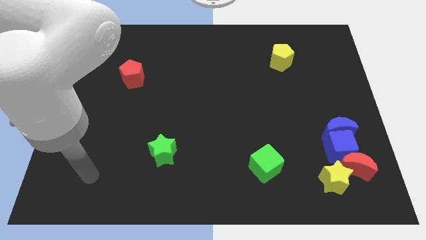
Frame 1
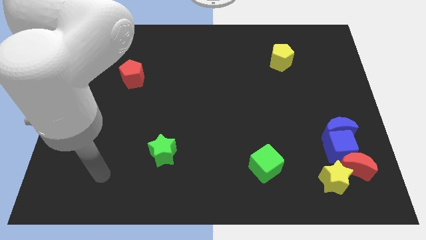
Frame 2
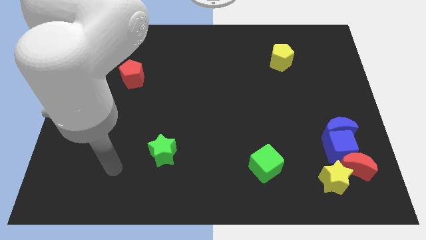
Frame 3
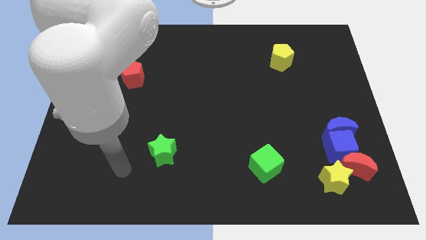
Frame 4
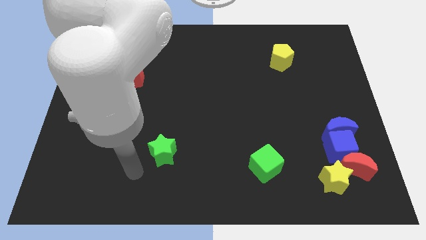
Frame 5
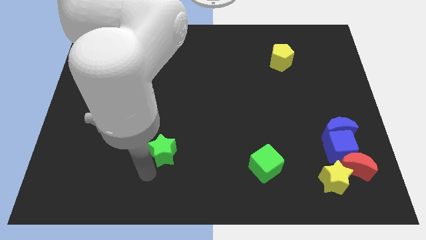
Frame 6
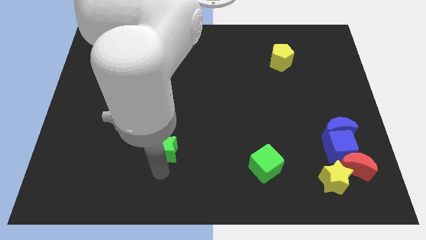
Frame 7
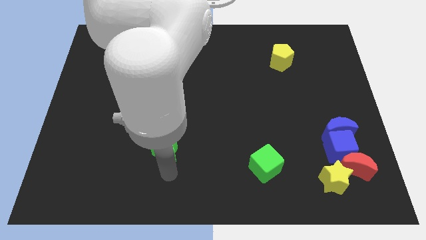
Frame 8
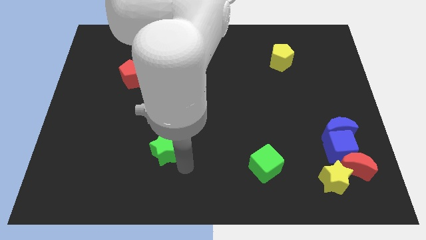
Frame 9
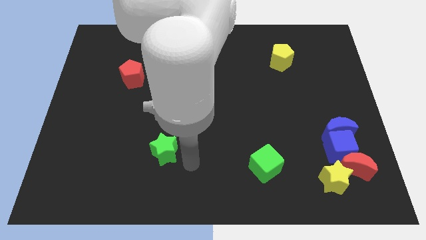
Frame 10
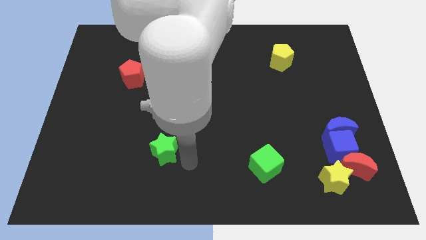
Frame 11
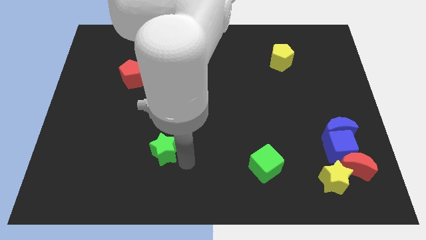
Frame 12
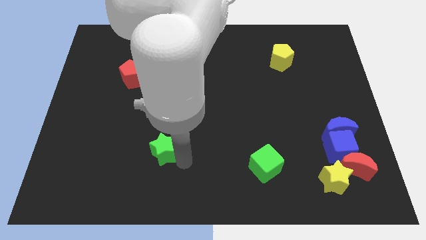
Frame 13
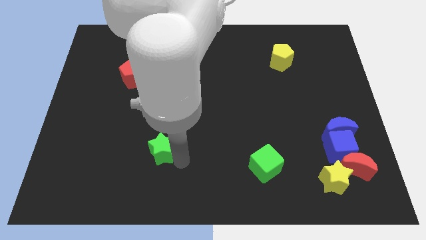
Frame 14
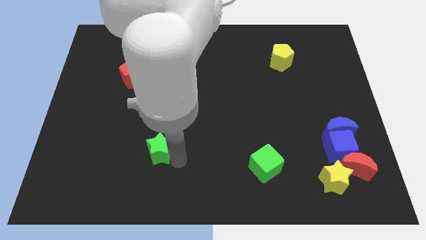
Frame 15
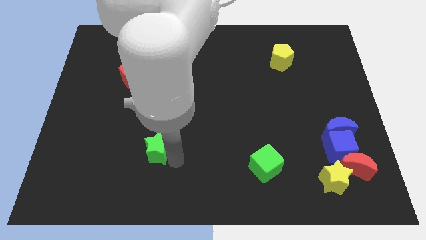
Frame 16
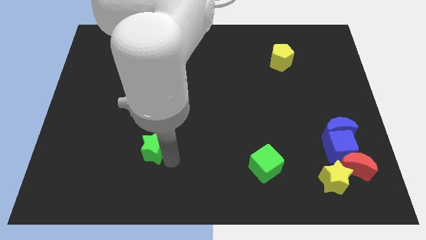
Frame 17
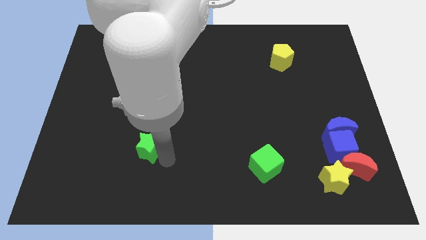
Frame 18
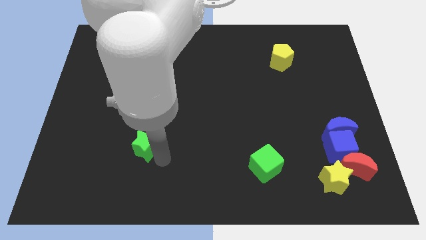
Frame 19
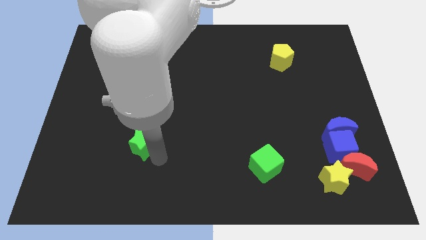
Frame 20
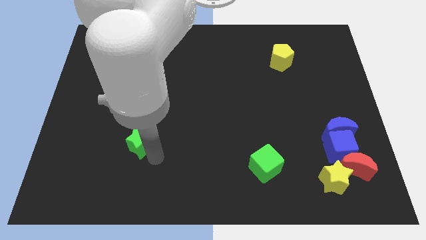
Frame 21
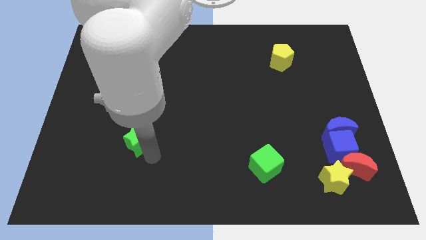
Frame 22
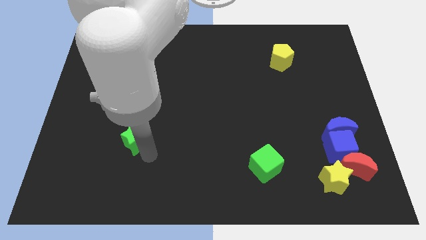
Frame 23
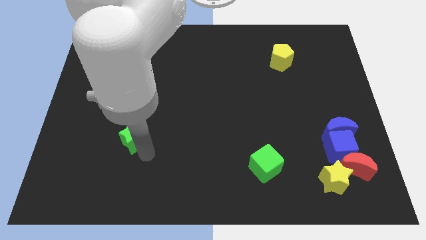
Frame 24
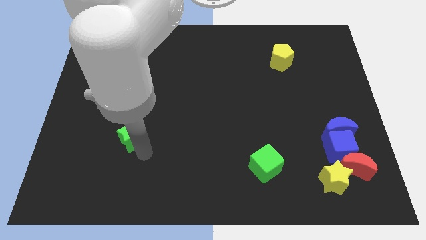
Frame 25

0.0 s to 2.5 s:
slightly slide the green star upwards and left

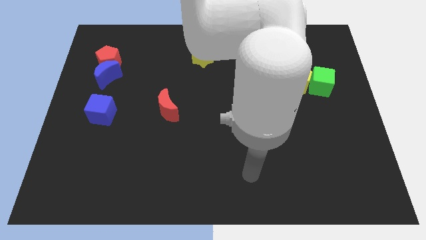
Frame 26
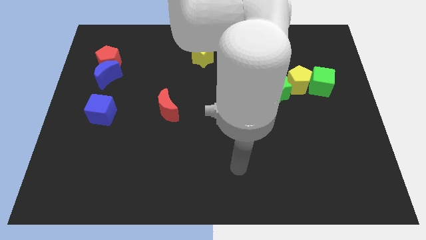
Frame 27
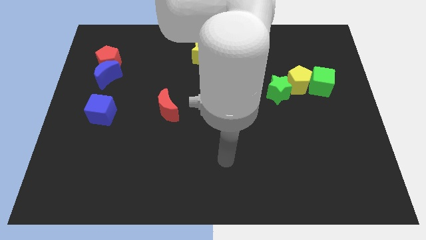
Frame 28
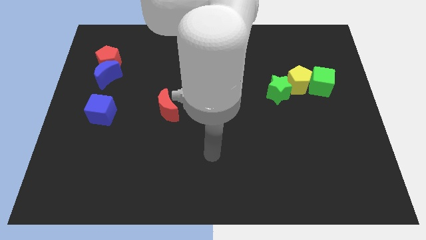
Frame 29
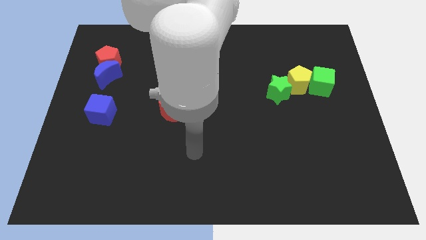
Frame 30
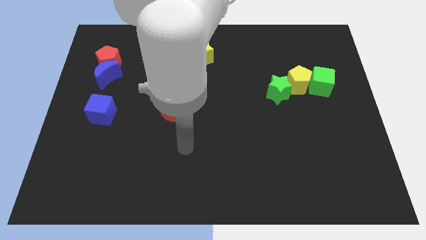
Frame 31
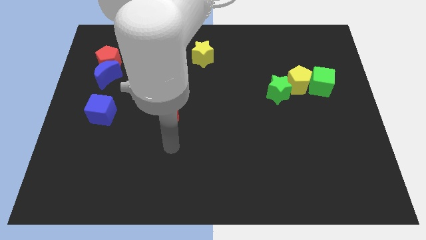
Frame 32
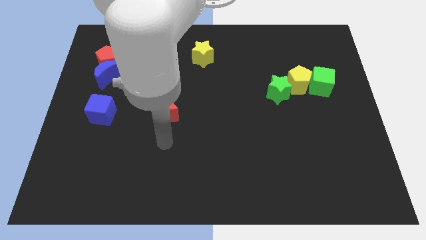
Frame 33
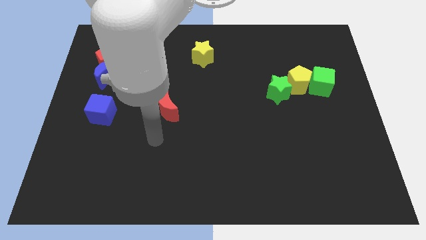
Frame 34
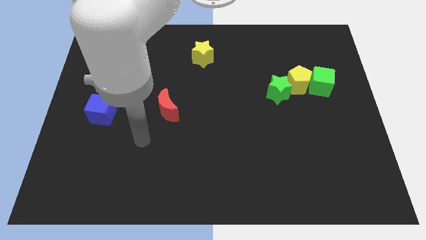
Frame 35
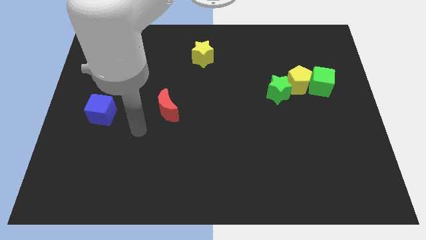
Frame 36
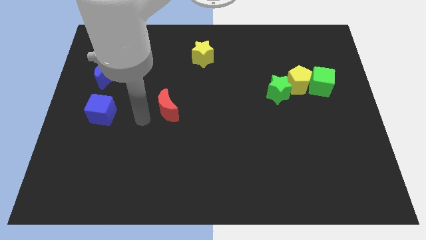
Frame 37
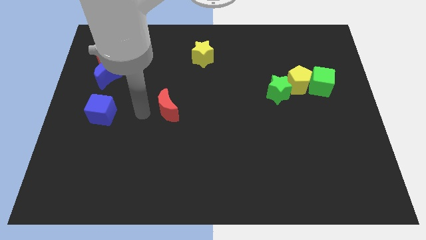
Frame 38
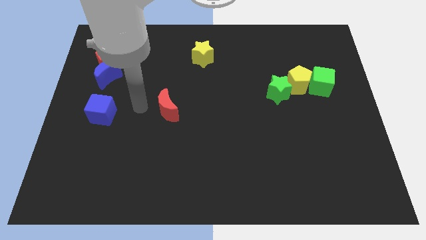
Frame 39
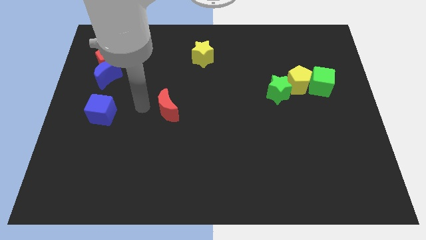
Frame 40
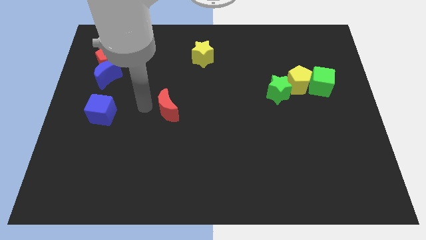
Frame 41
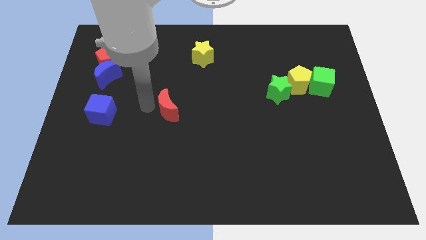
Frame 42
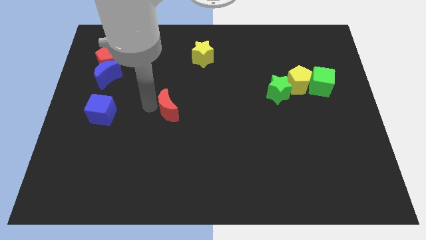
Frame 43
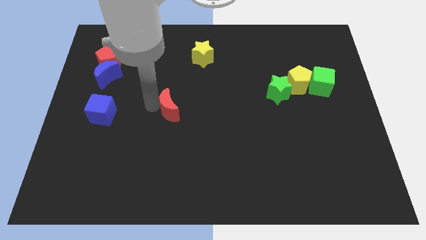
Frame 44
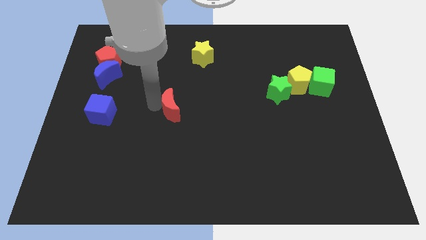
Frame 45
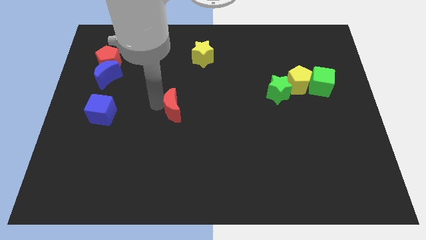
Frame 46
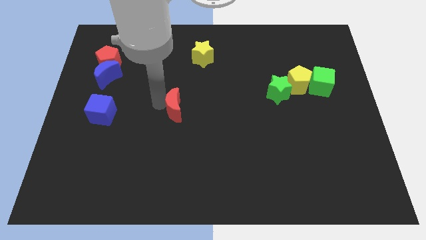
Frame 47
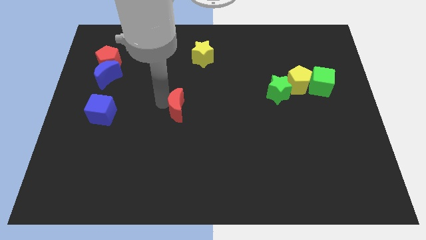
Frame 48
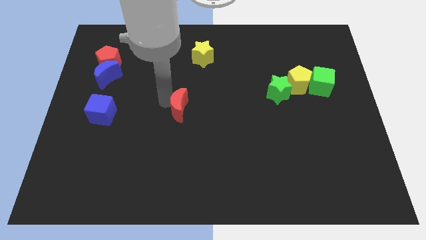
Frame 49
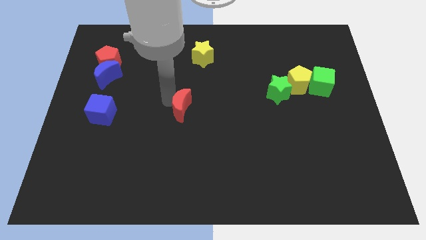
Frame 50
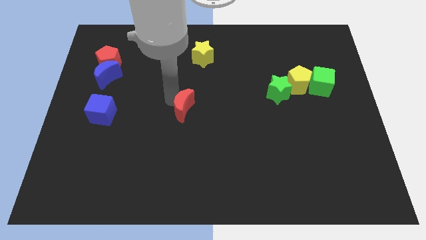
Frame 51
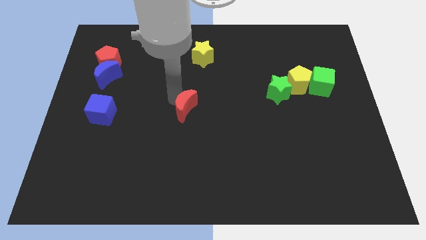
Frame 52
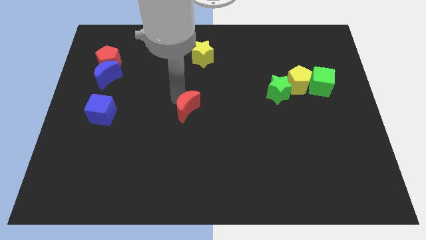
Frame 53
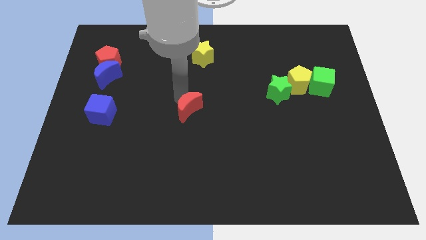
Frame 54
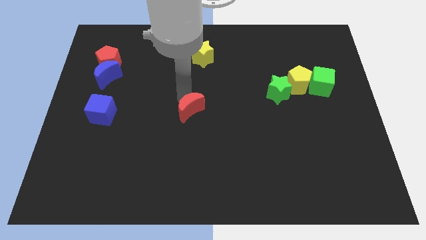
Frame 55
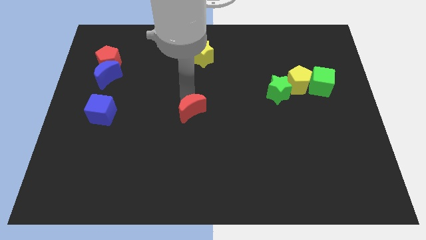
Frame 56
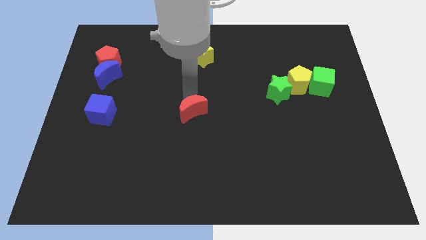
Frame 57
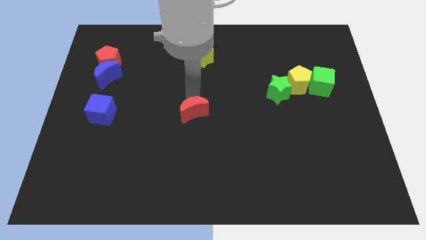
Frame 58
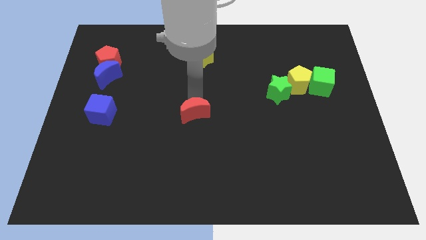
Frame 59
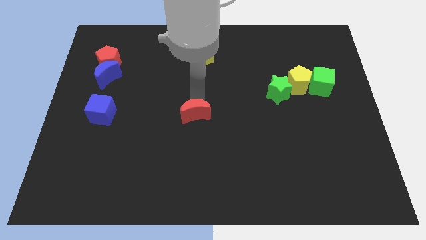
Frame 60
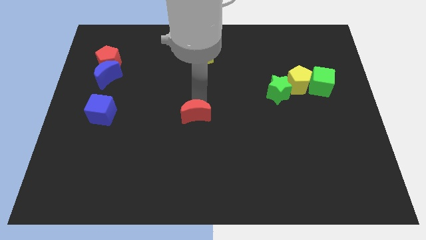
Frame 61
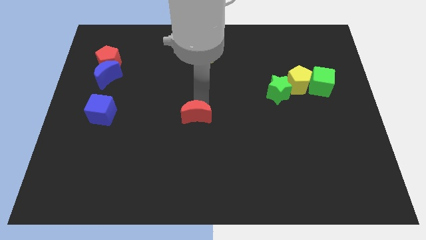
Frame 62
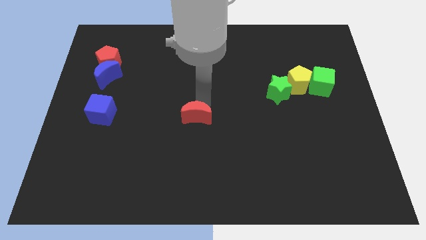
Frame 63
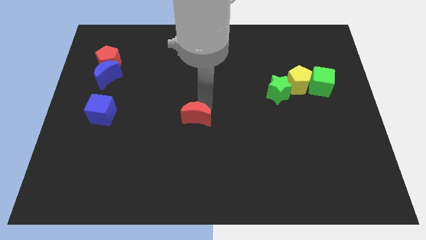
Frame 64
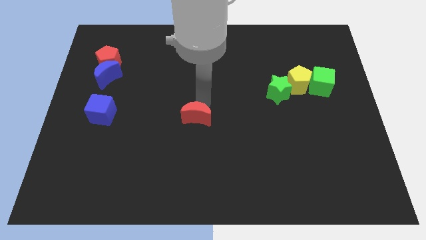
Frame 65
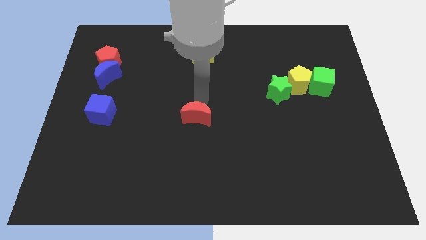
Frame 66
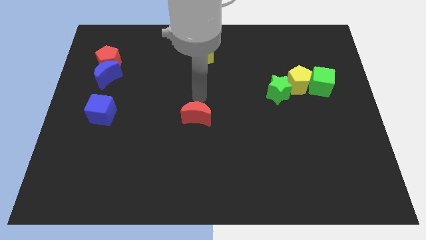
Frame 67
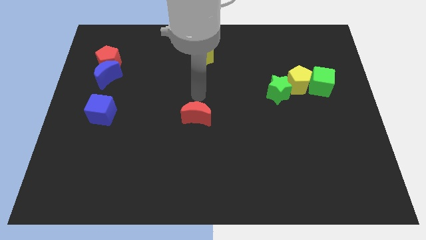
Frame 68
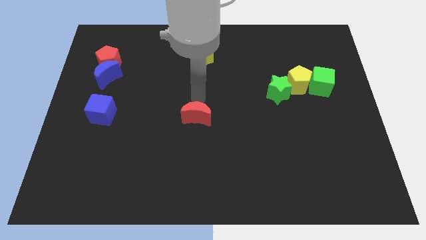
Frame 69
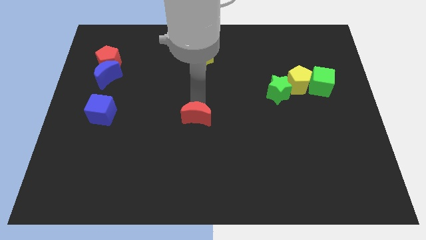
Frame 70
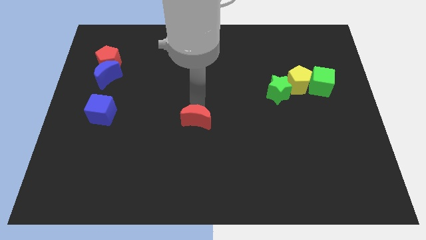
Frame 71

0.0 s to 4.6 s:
slightly move the red moon down and then to the right

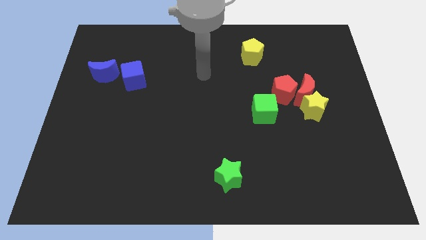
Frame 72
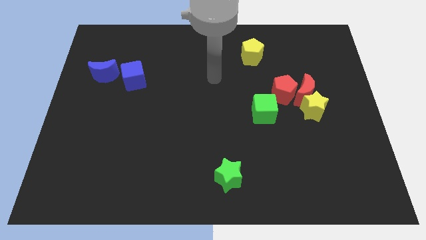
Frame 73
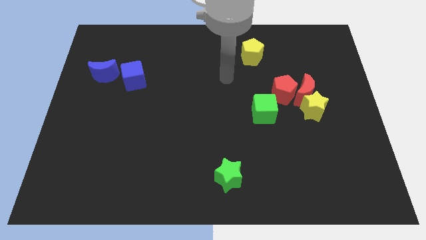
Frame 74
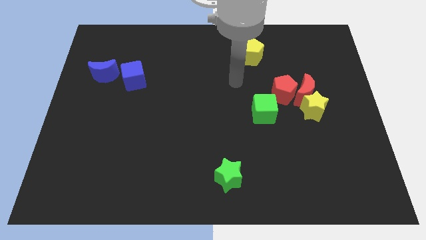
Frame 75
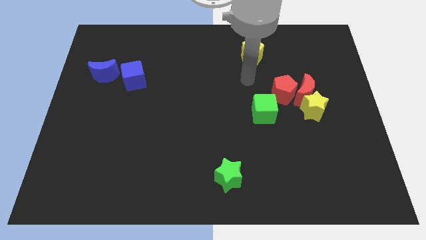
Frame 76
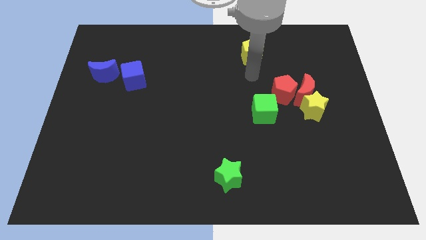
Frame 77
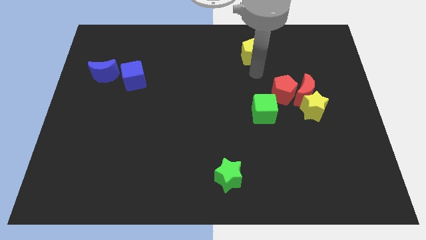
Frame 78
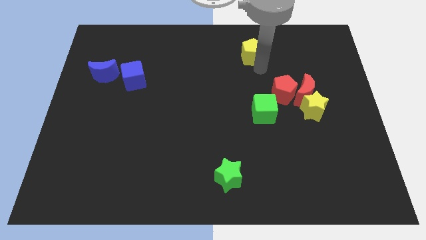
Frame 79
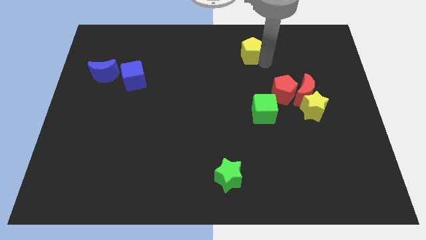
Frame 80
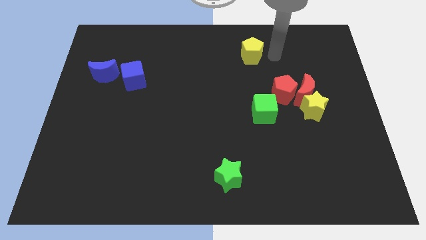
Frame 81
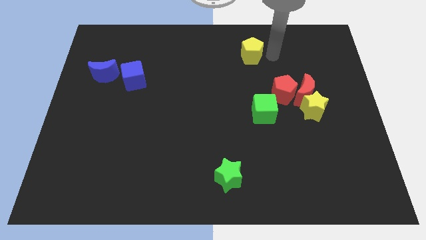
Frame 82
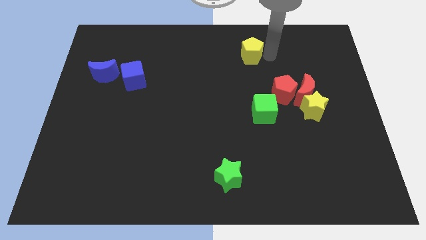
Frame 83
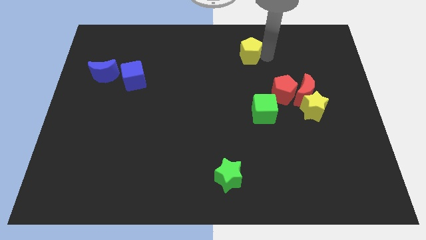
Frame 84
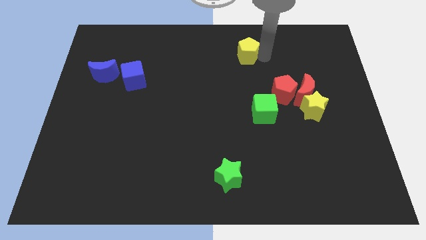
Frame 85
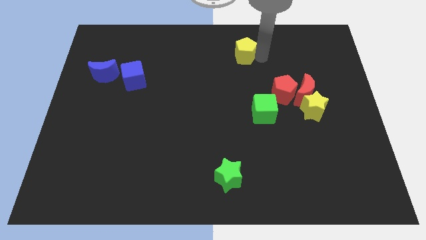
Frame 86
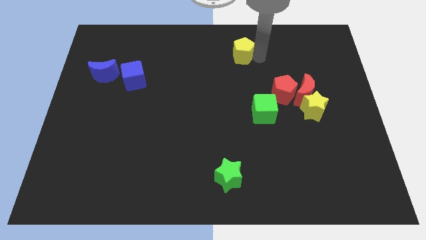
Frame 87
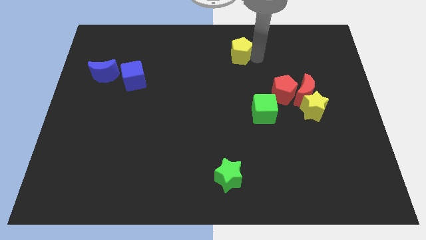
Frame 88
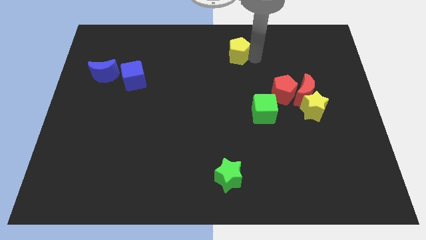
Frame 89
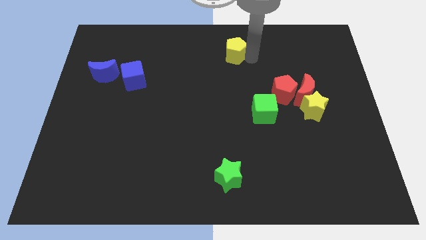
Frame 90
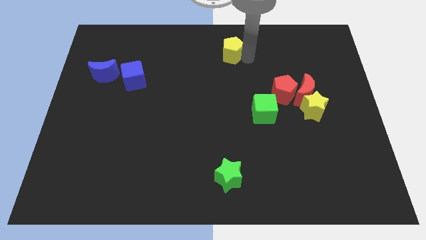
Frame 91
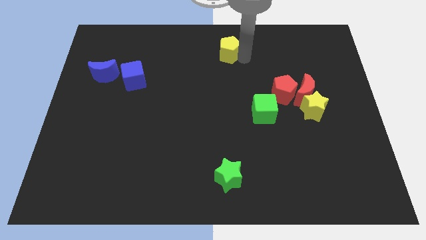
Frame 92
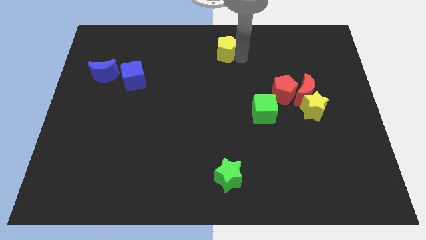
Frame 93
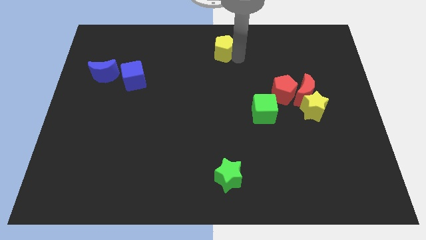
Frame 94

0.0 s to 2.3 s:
slide the yellow pentagon left somewhat
